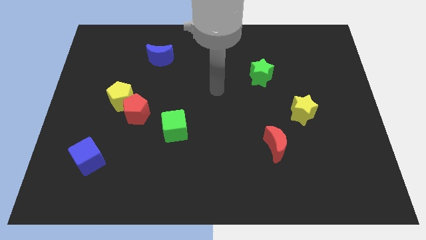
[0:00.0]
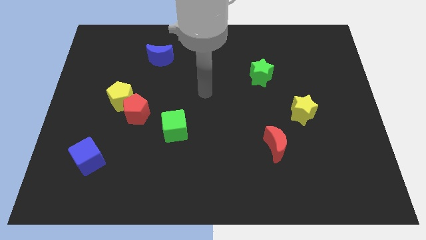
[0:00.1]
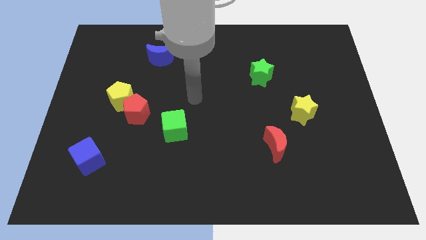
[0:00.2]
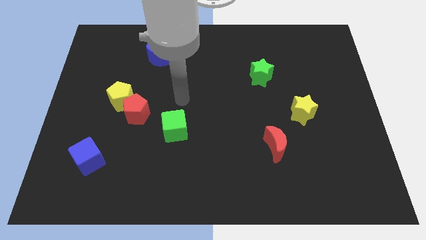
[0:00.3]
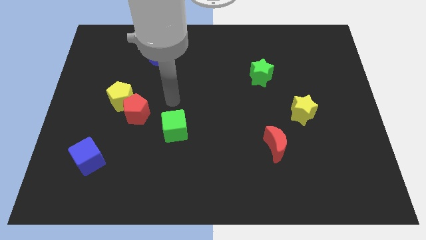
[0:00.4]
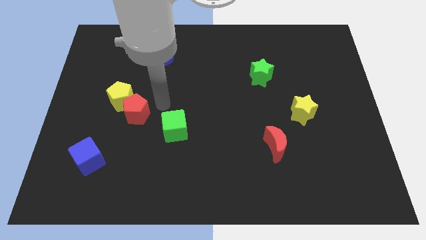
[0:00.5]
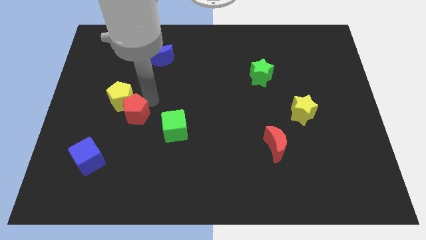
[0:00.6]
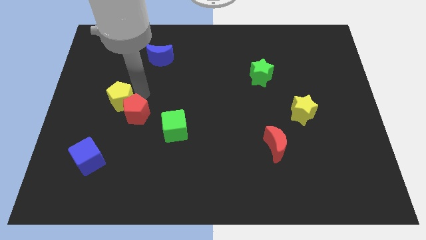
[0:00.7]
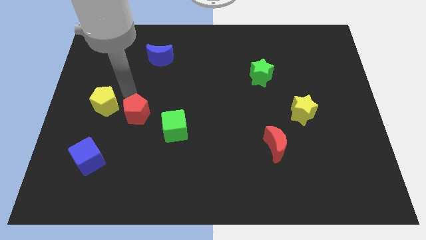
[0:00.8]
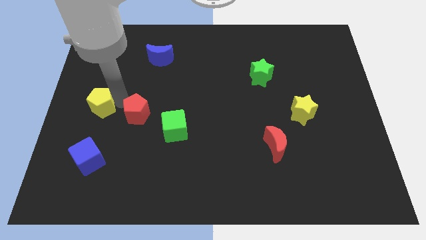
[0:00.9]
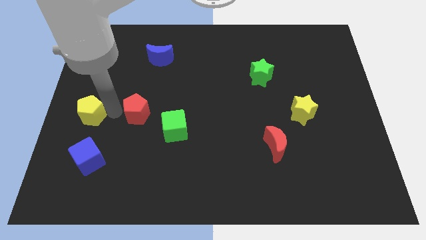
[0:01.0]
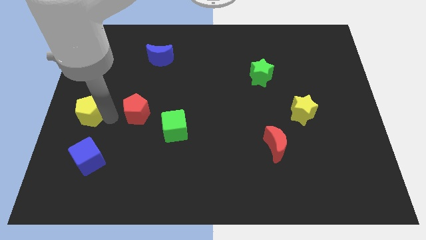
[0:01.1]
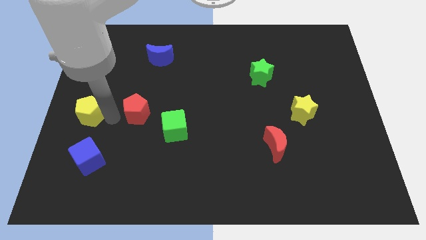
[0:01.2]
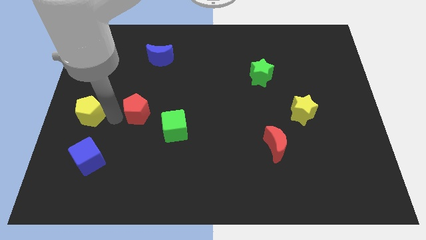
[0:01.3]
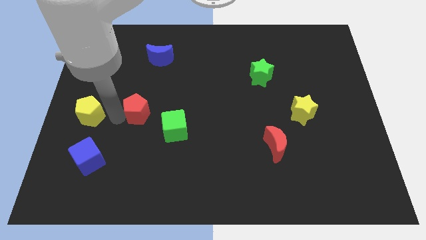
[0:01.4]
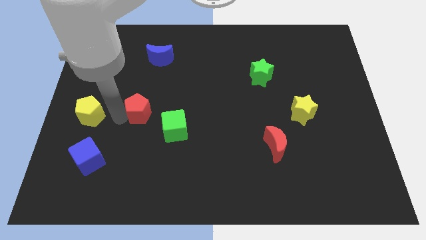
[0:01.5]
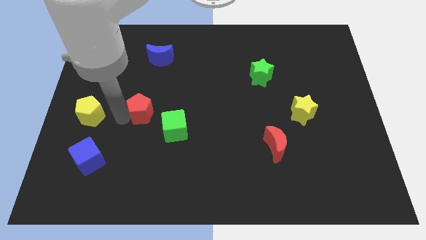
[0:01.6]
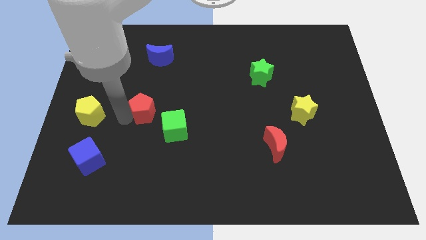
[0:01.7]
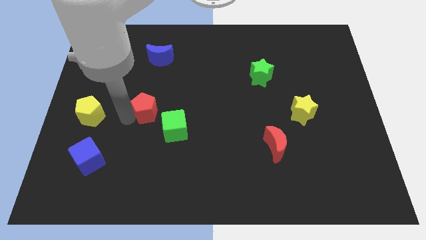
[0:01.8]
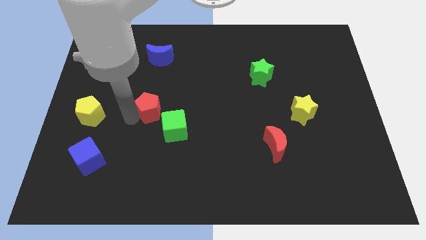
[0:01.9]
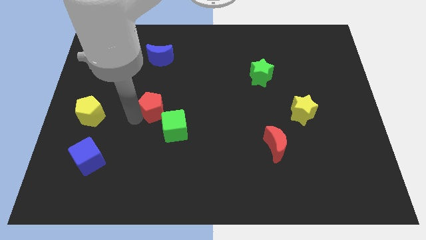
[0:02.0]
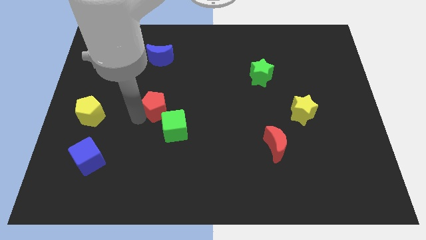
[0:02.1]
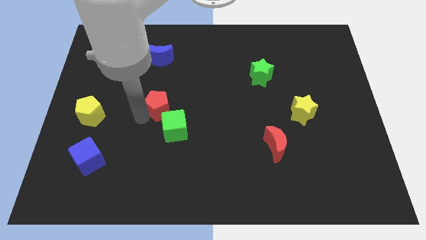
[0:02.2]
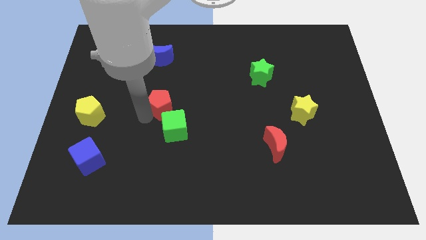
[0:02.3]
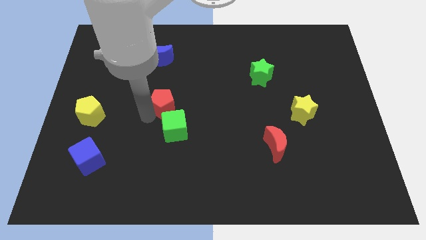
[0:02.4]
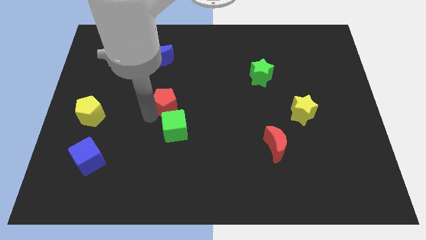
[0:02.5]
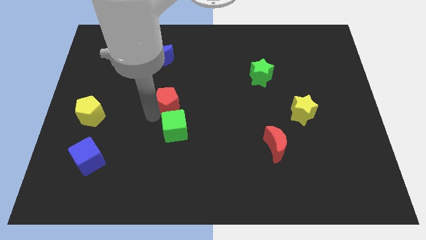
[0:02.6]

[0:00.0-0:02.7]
slide the red pentagon slightly to the right

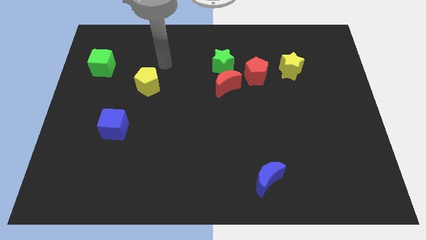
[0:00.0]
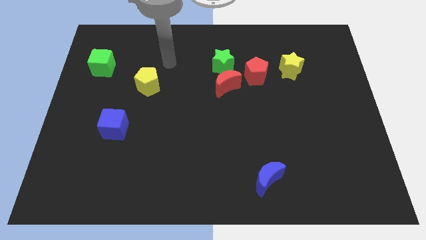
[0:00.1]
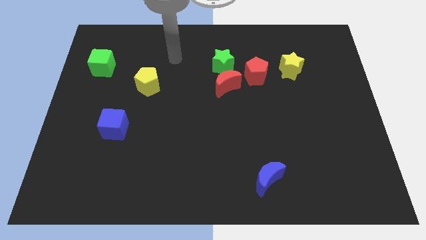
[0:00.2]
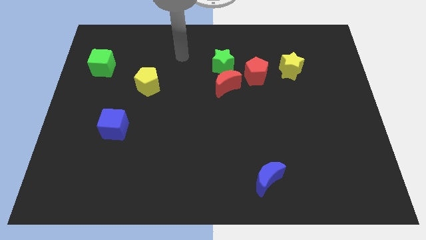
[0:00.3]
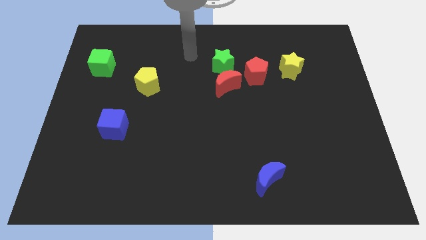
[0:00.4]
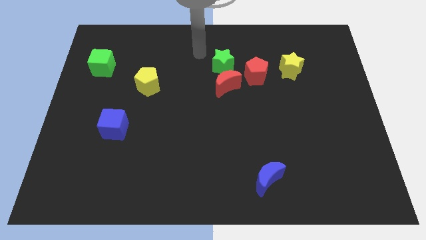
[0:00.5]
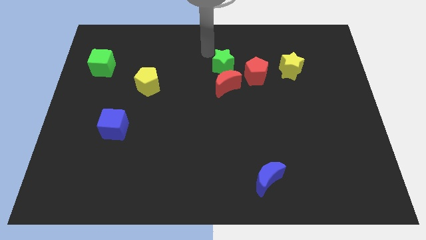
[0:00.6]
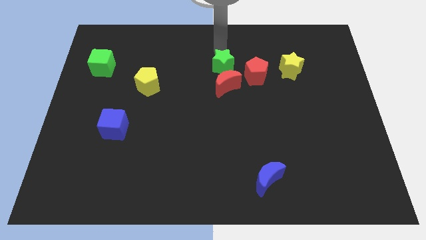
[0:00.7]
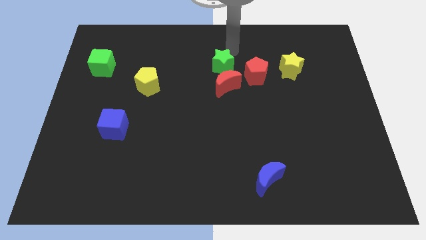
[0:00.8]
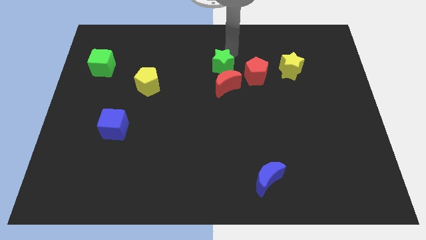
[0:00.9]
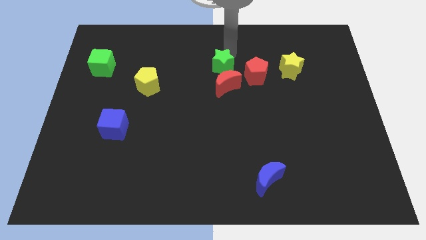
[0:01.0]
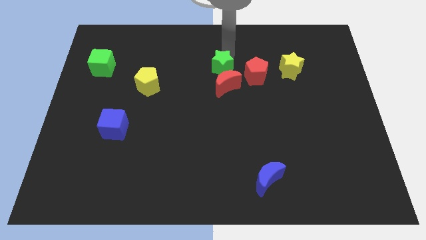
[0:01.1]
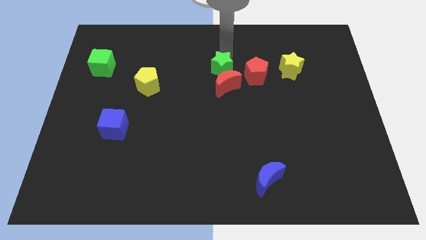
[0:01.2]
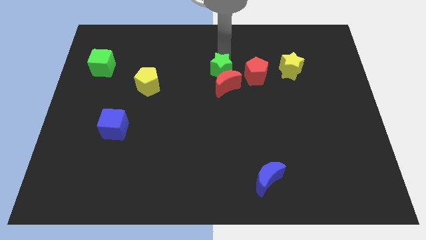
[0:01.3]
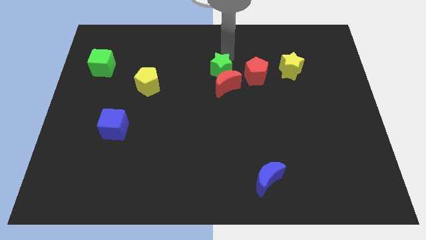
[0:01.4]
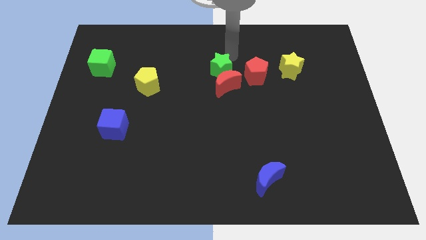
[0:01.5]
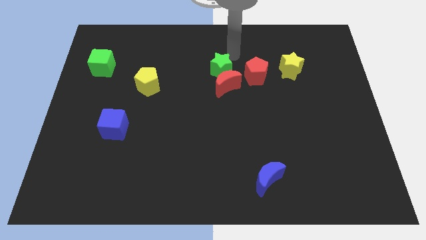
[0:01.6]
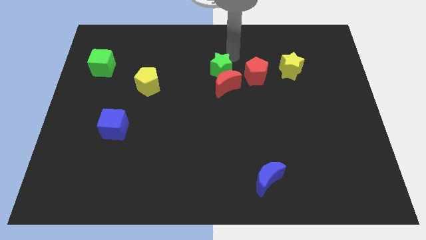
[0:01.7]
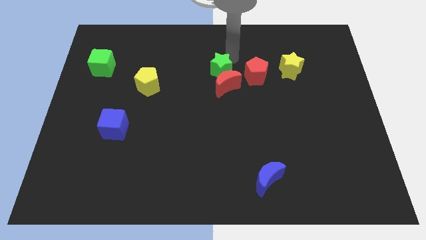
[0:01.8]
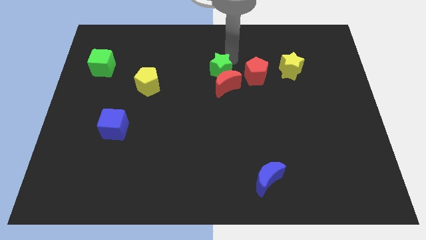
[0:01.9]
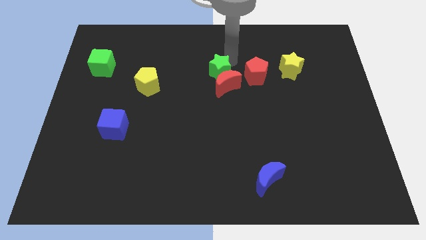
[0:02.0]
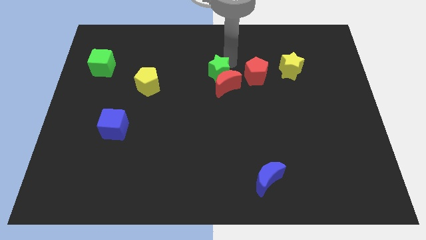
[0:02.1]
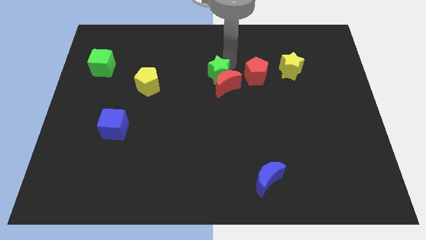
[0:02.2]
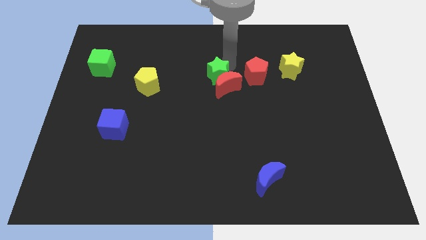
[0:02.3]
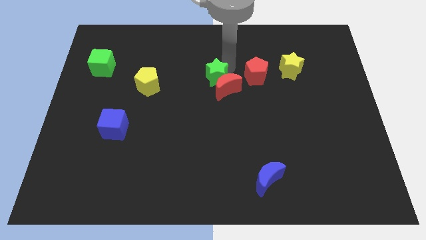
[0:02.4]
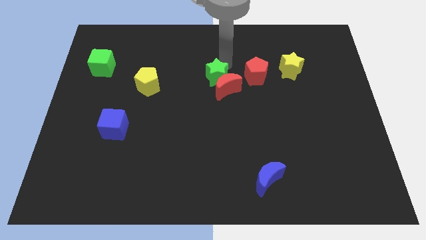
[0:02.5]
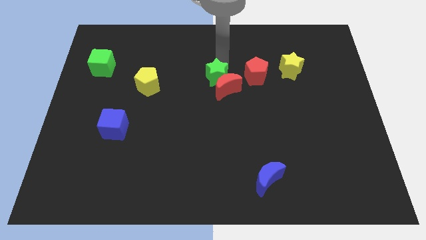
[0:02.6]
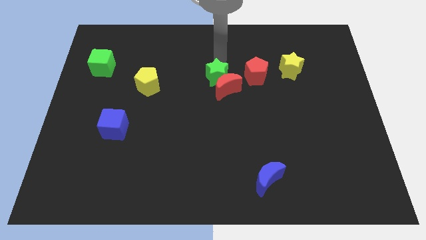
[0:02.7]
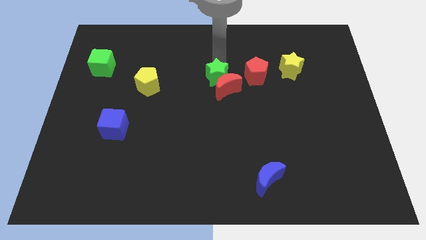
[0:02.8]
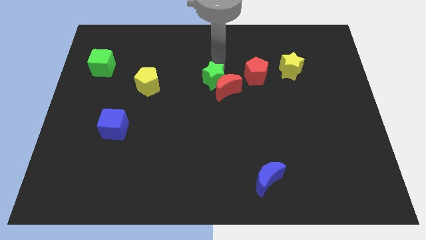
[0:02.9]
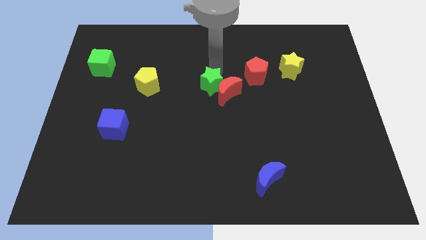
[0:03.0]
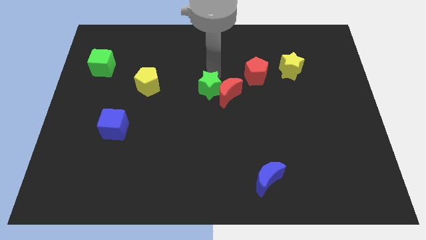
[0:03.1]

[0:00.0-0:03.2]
slightly slide the green star downwards

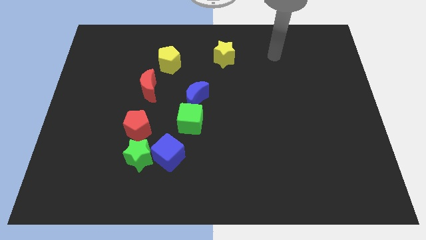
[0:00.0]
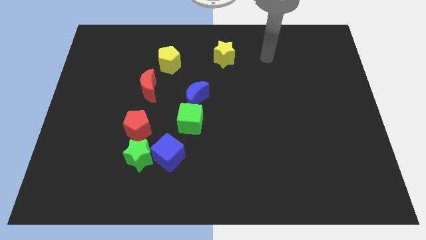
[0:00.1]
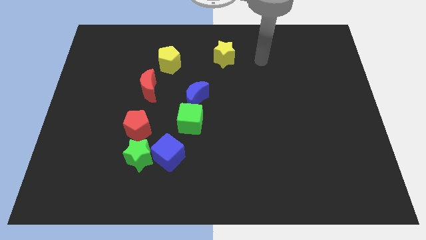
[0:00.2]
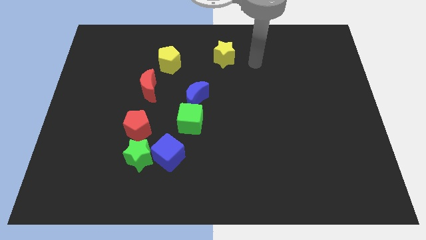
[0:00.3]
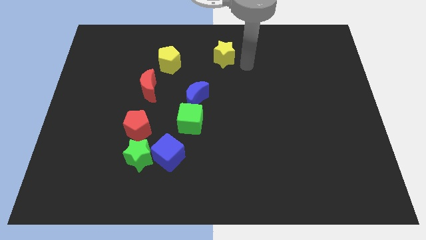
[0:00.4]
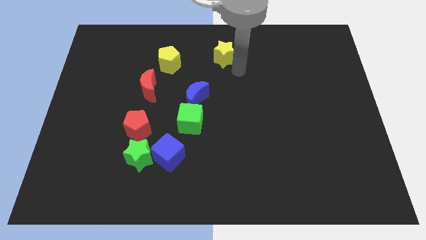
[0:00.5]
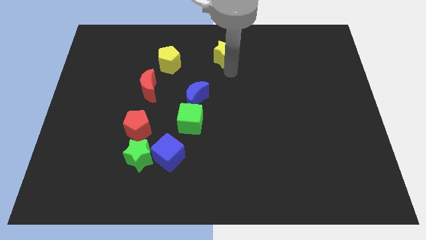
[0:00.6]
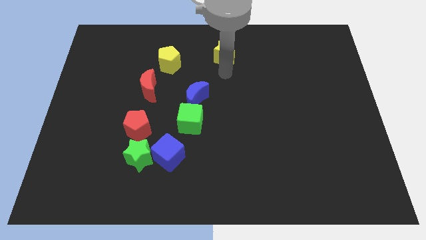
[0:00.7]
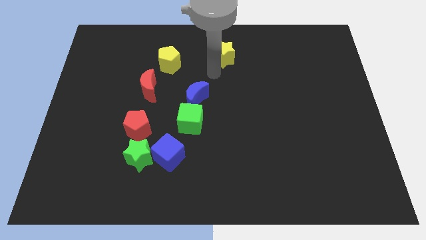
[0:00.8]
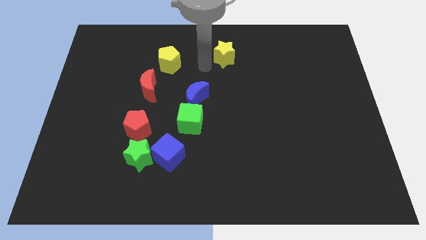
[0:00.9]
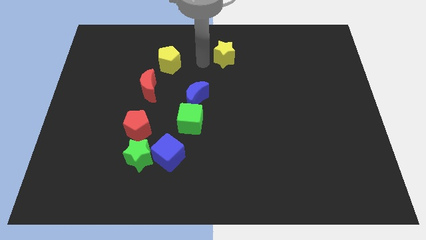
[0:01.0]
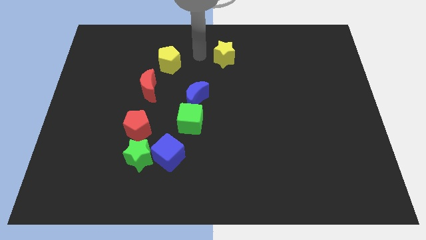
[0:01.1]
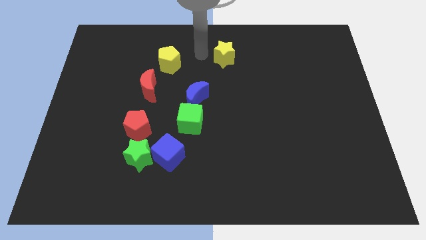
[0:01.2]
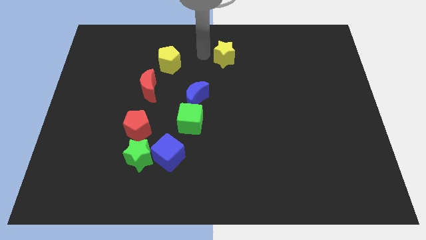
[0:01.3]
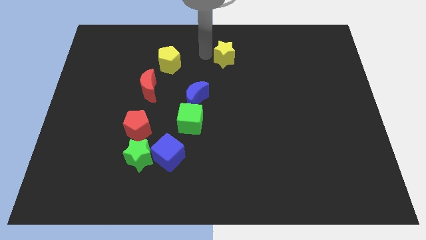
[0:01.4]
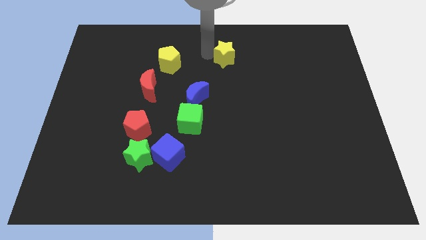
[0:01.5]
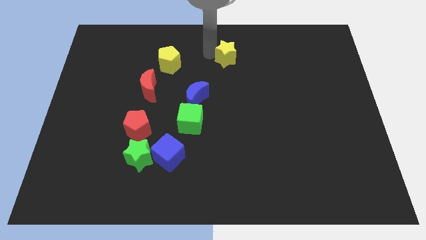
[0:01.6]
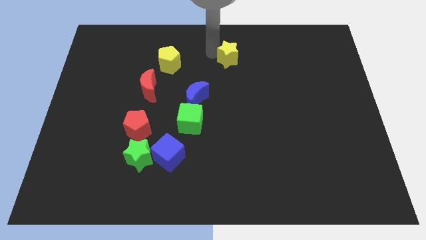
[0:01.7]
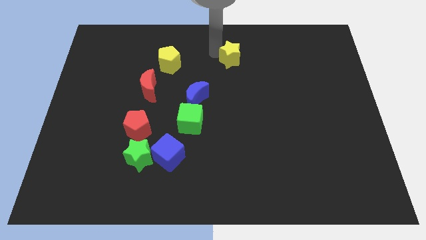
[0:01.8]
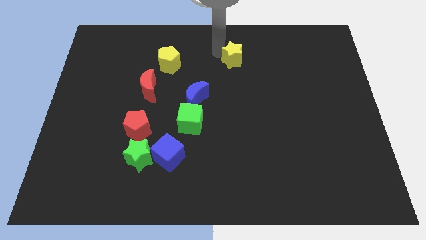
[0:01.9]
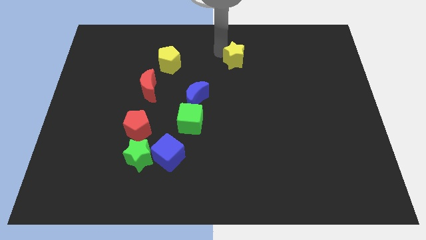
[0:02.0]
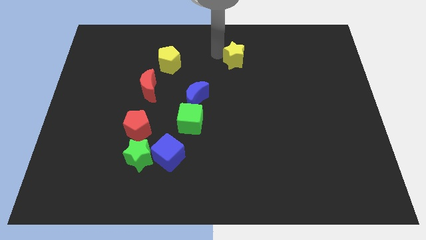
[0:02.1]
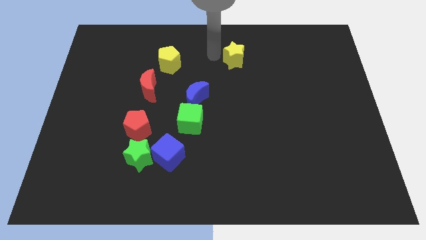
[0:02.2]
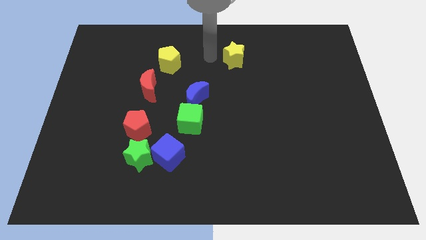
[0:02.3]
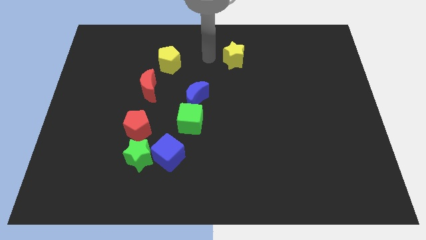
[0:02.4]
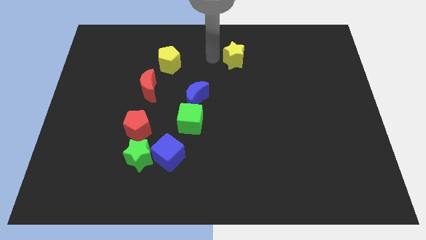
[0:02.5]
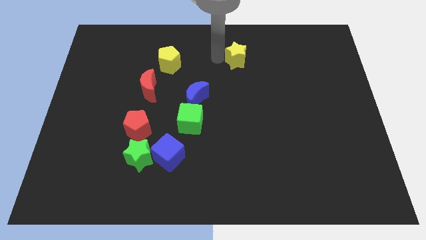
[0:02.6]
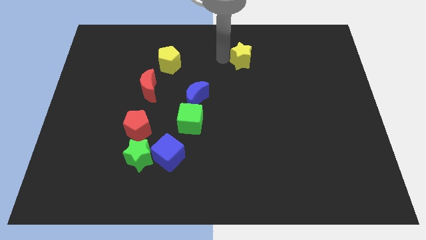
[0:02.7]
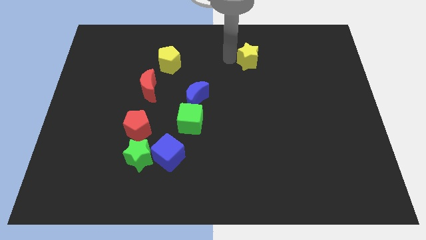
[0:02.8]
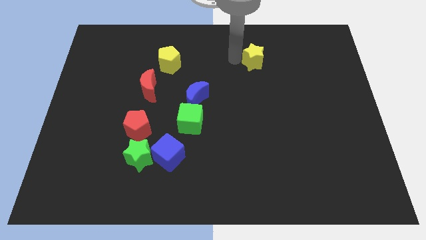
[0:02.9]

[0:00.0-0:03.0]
slightly move the yellow star to the right
